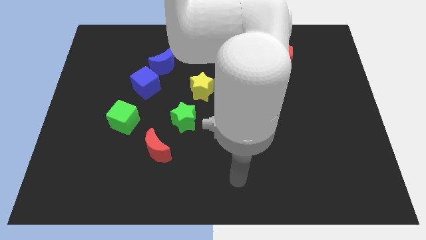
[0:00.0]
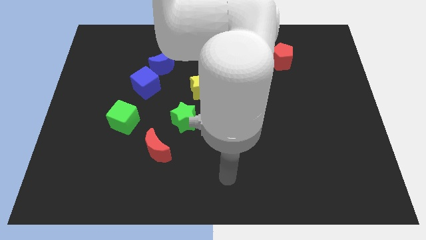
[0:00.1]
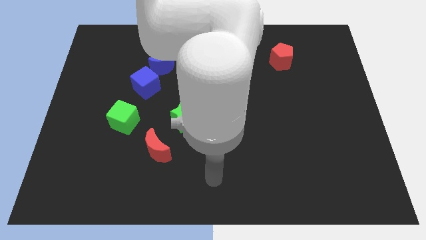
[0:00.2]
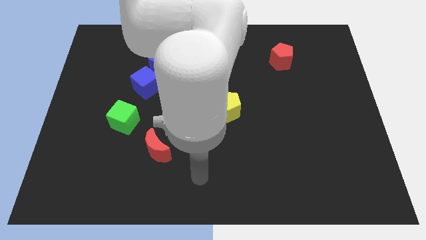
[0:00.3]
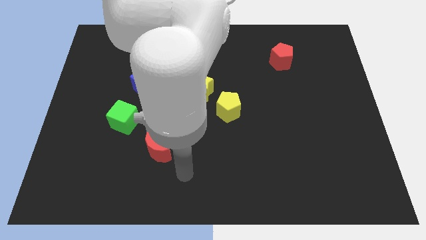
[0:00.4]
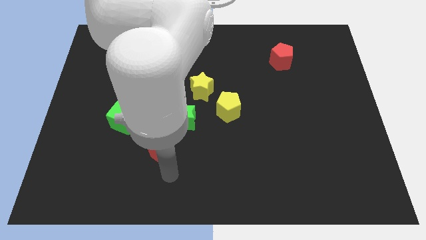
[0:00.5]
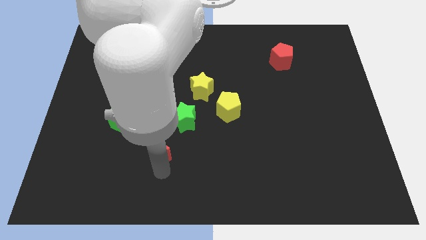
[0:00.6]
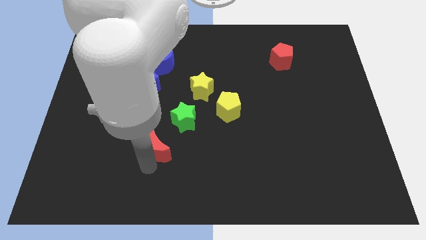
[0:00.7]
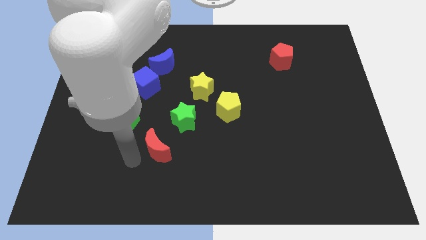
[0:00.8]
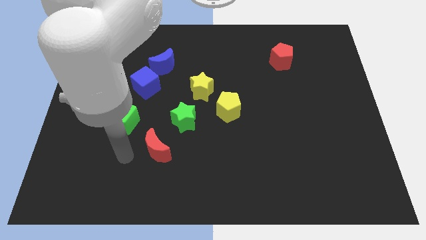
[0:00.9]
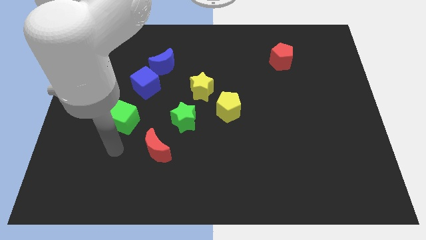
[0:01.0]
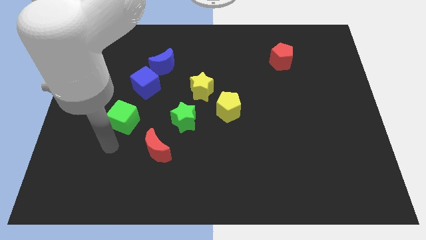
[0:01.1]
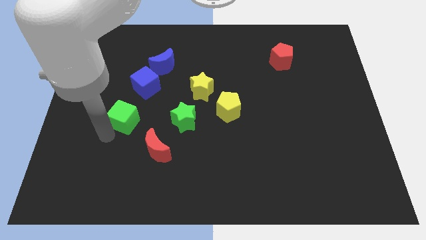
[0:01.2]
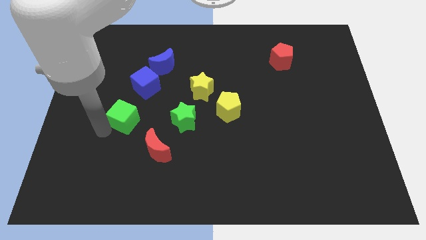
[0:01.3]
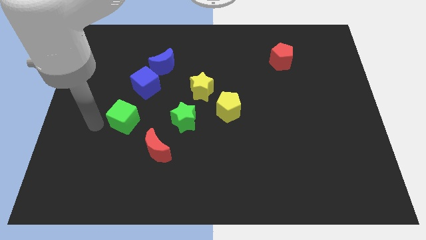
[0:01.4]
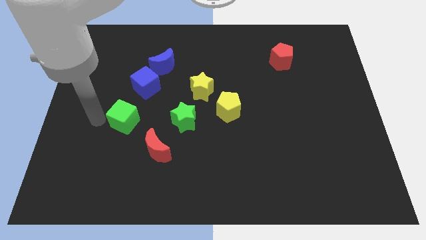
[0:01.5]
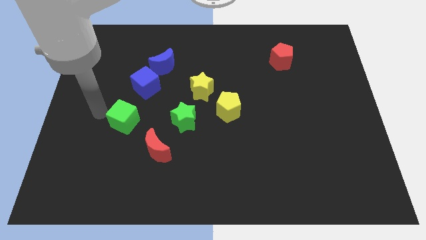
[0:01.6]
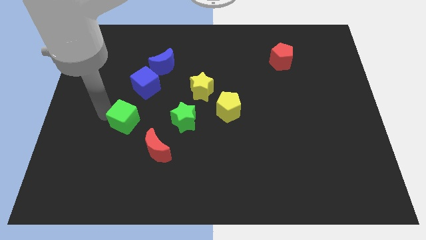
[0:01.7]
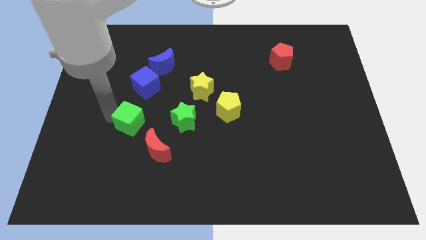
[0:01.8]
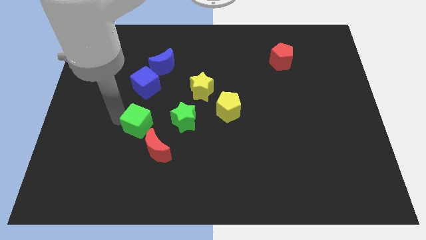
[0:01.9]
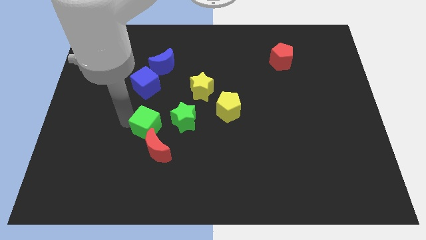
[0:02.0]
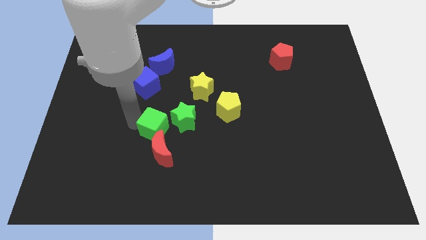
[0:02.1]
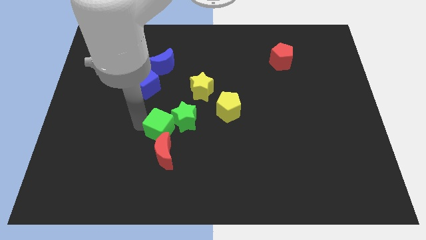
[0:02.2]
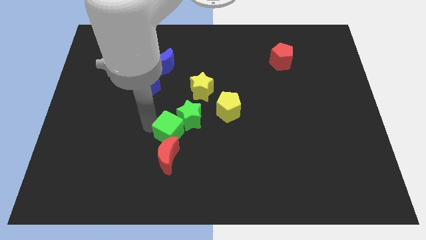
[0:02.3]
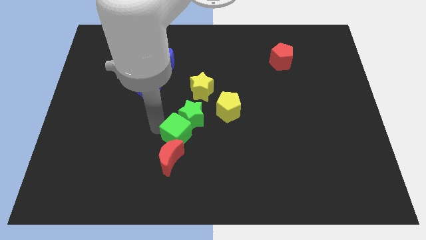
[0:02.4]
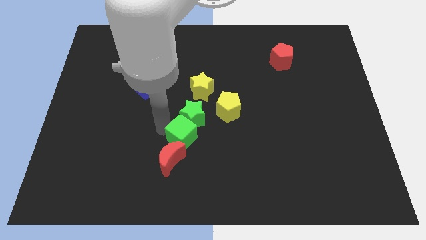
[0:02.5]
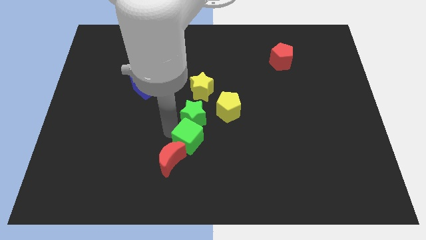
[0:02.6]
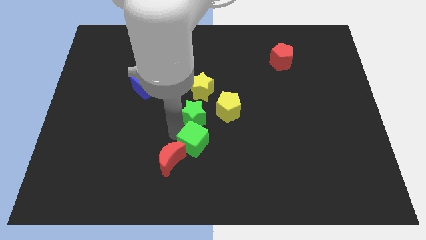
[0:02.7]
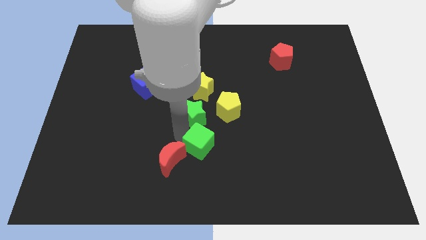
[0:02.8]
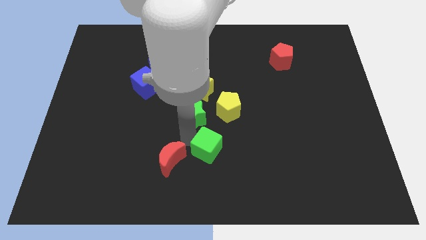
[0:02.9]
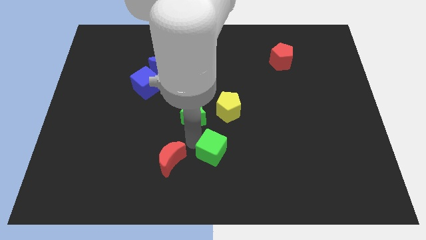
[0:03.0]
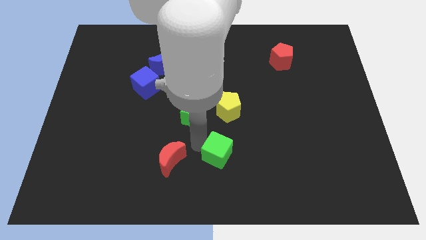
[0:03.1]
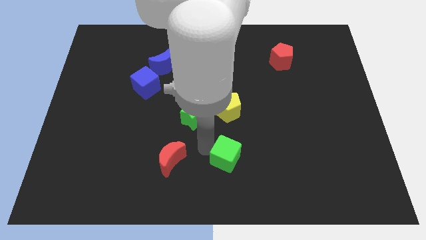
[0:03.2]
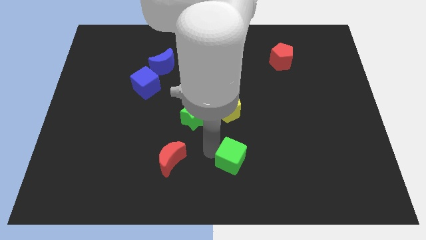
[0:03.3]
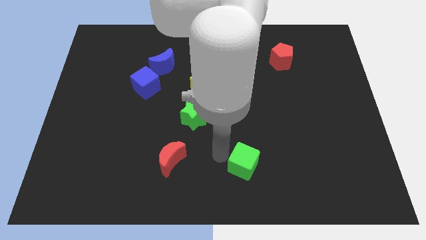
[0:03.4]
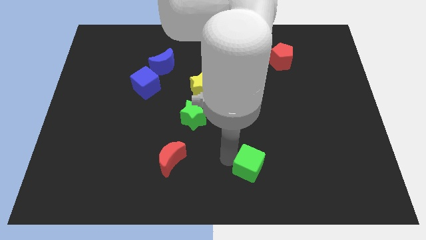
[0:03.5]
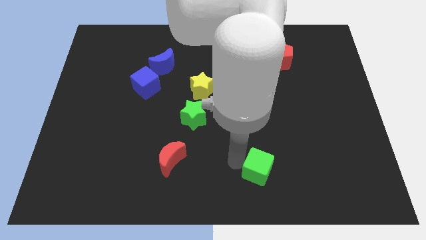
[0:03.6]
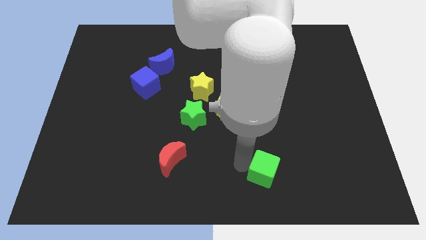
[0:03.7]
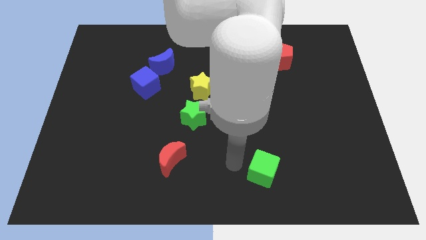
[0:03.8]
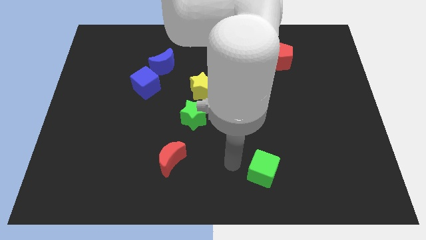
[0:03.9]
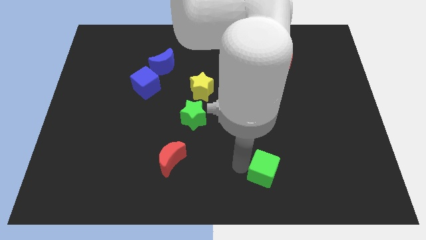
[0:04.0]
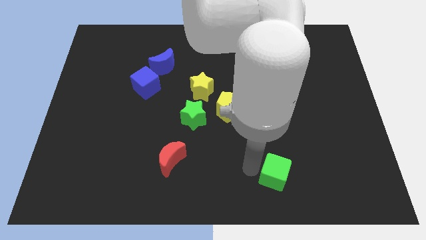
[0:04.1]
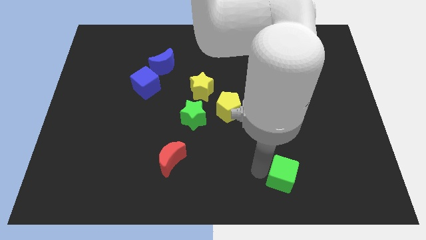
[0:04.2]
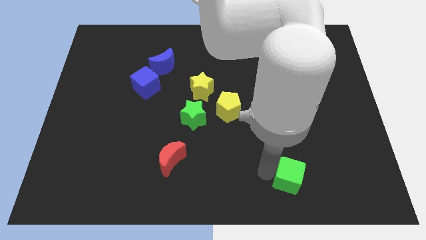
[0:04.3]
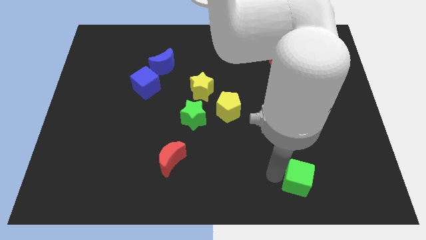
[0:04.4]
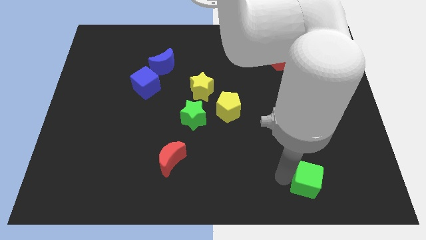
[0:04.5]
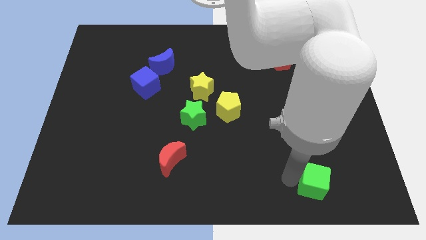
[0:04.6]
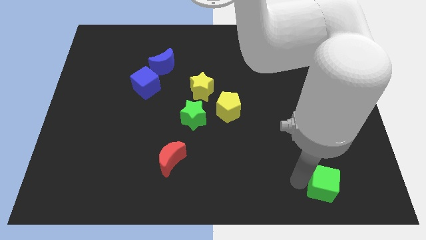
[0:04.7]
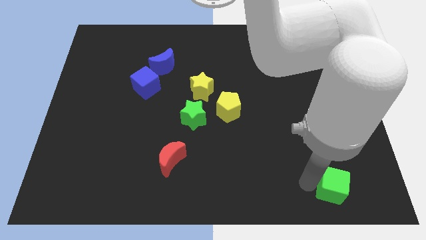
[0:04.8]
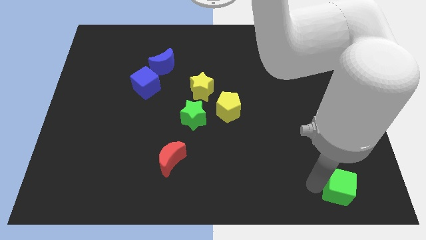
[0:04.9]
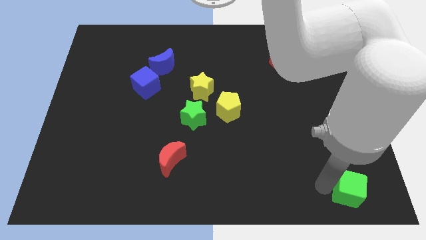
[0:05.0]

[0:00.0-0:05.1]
push the green cube to the lower right corner
